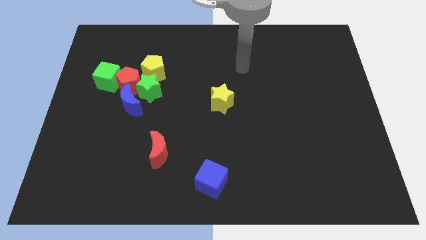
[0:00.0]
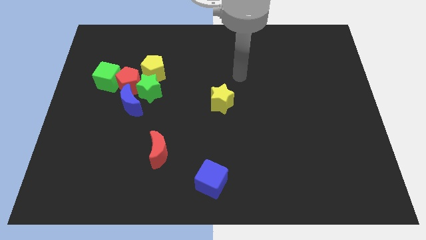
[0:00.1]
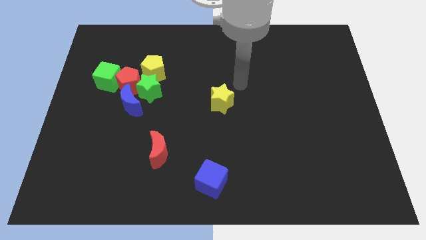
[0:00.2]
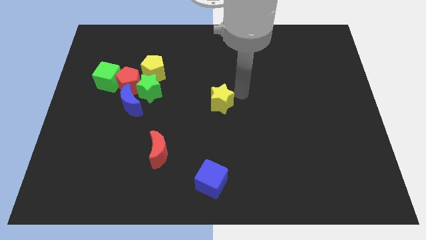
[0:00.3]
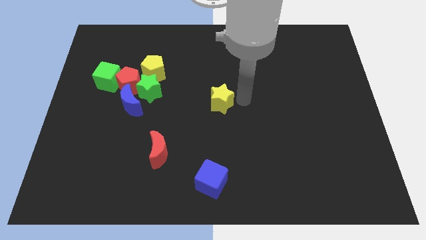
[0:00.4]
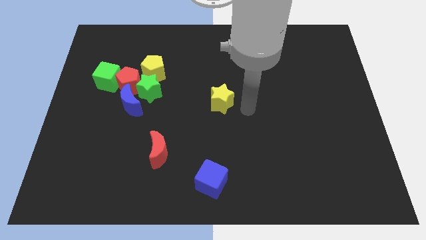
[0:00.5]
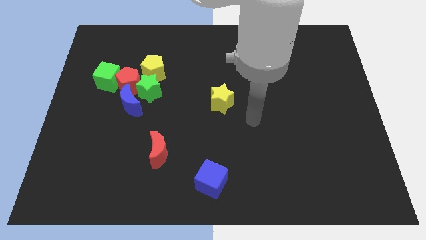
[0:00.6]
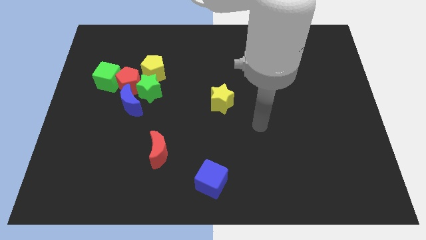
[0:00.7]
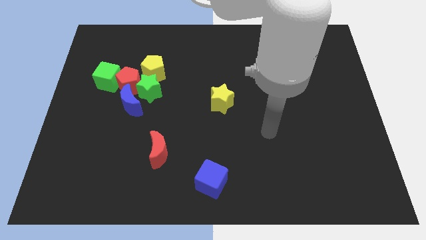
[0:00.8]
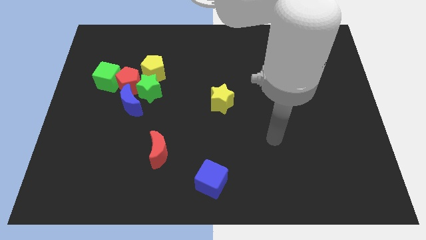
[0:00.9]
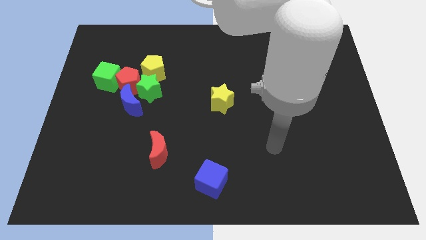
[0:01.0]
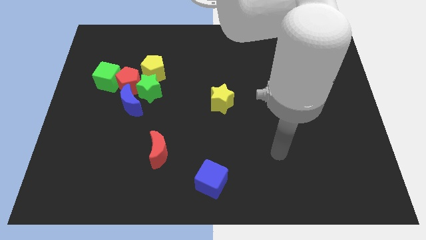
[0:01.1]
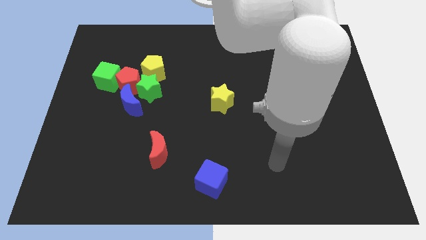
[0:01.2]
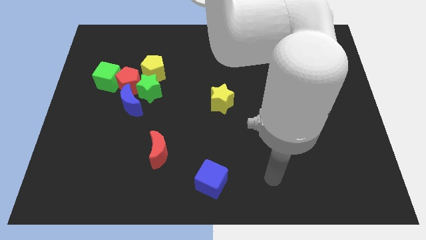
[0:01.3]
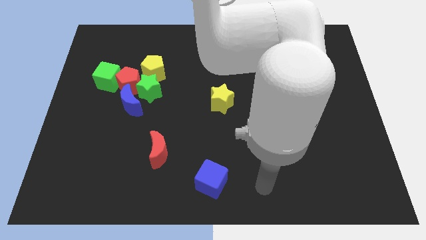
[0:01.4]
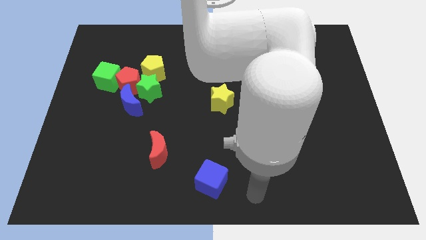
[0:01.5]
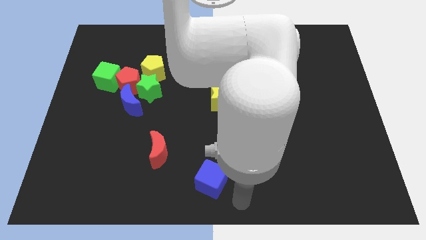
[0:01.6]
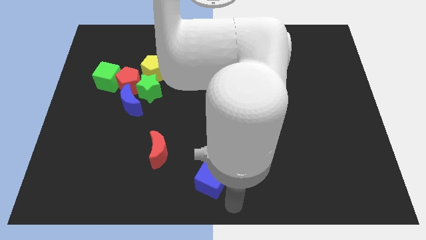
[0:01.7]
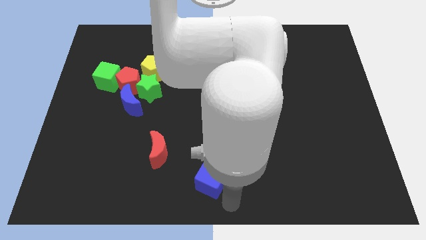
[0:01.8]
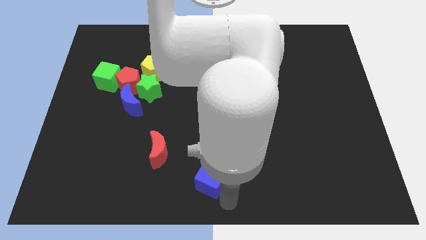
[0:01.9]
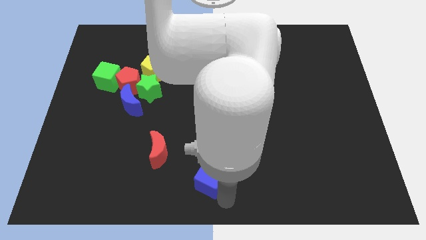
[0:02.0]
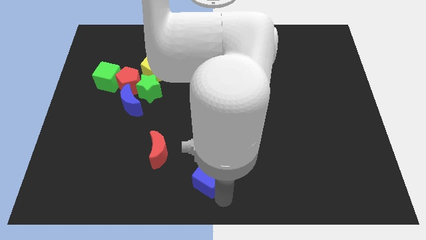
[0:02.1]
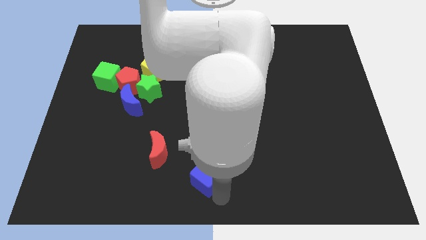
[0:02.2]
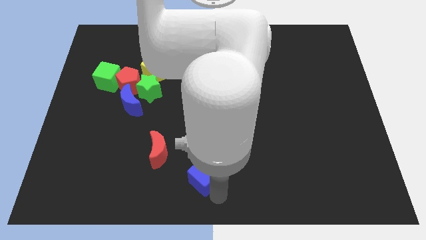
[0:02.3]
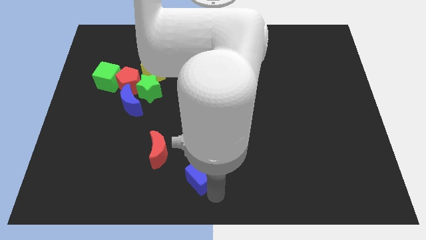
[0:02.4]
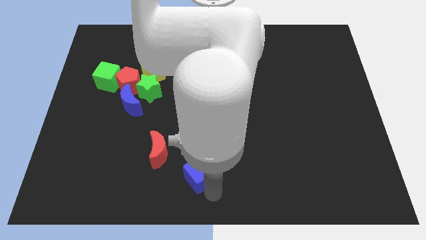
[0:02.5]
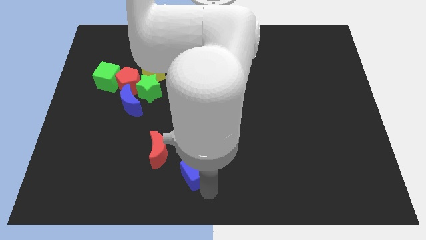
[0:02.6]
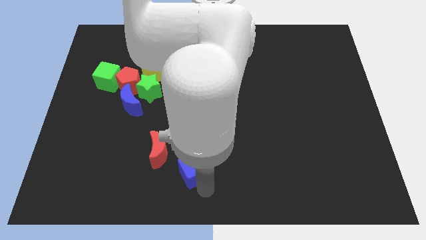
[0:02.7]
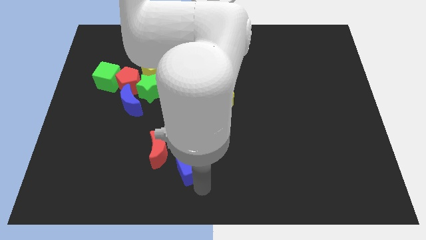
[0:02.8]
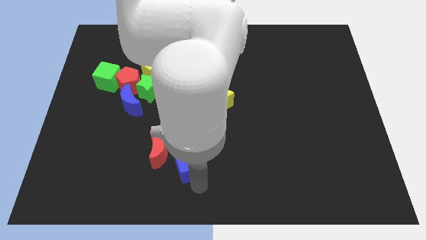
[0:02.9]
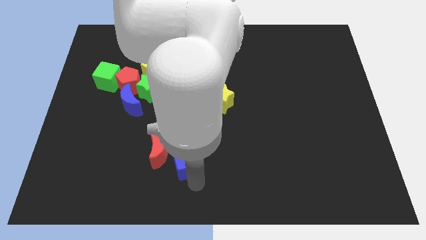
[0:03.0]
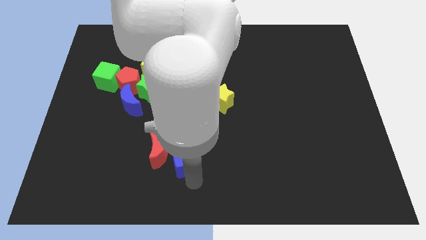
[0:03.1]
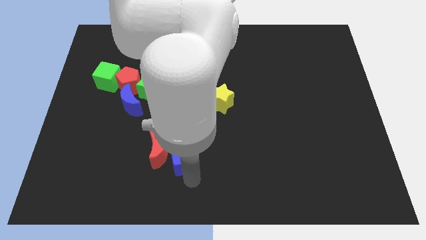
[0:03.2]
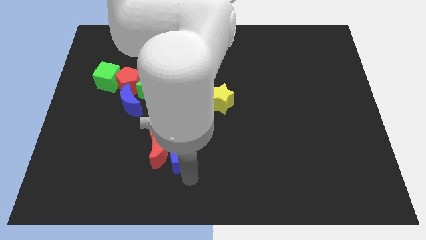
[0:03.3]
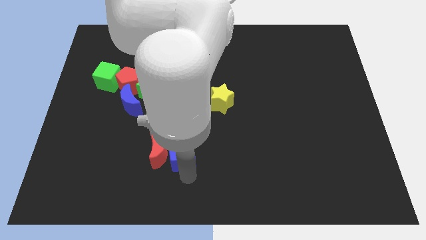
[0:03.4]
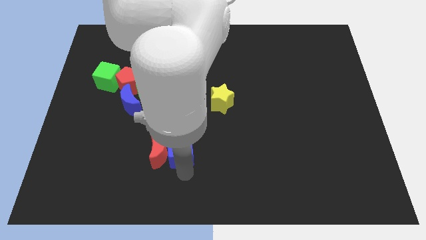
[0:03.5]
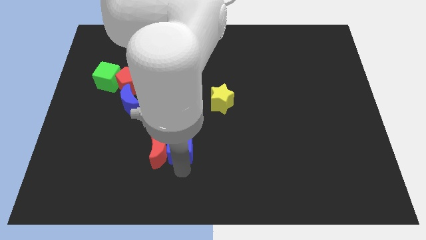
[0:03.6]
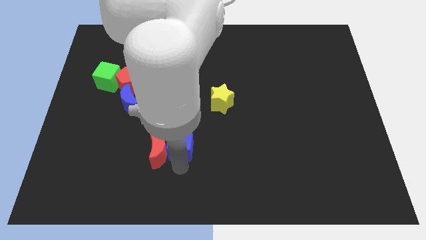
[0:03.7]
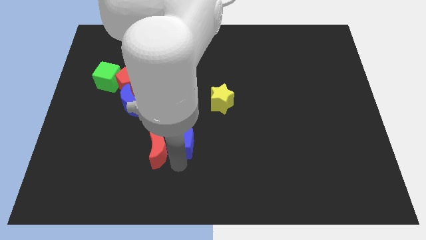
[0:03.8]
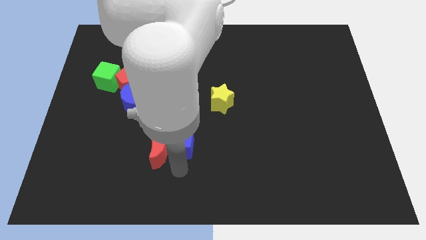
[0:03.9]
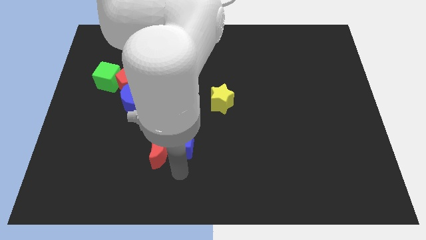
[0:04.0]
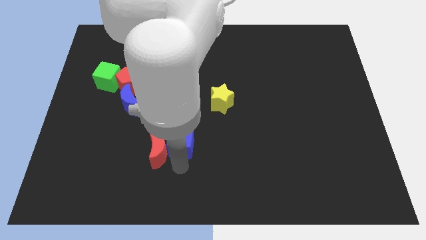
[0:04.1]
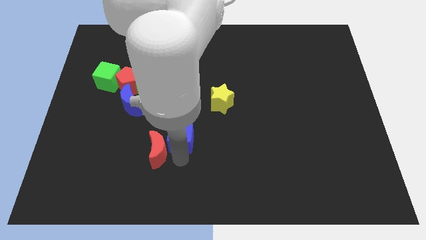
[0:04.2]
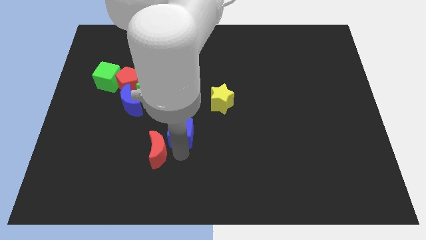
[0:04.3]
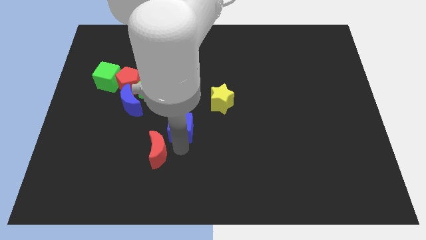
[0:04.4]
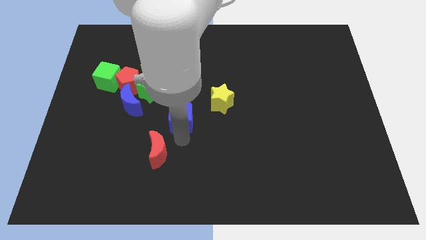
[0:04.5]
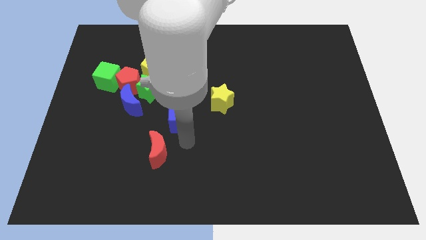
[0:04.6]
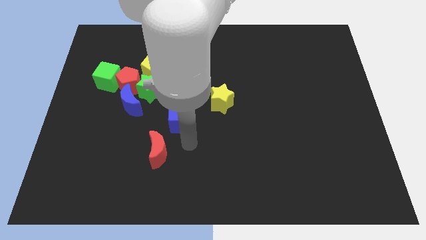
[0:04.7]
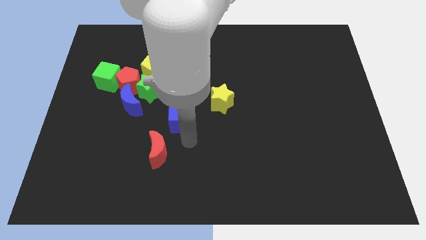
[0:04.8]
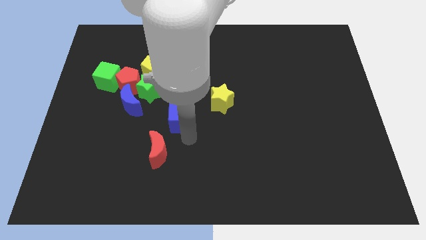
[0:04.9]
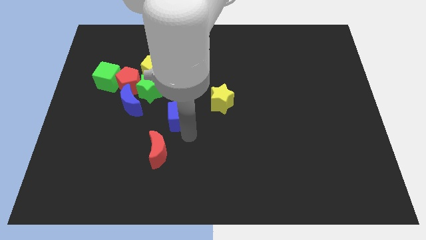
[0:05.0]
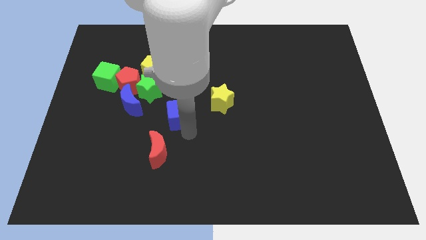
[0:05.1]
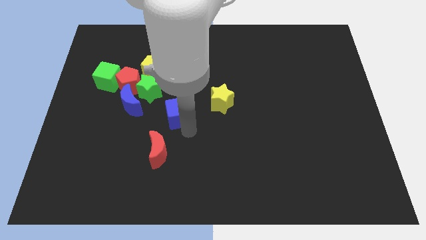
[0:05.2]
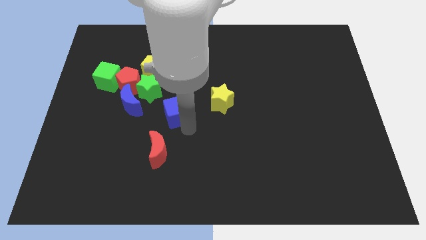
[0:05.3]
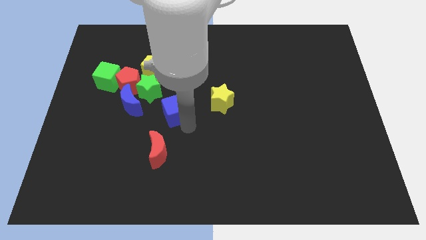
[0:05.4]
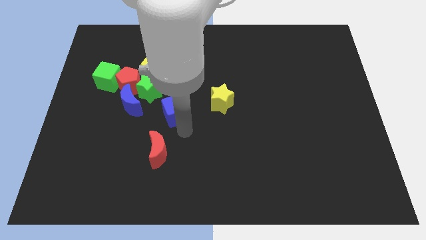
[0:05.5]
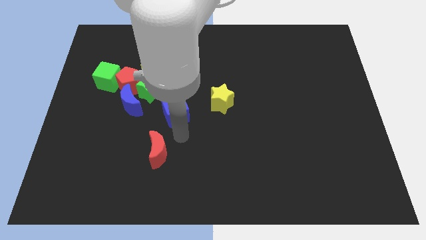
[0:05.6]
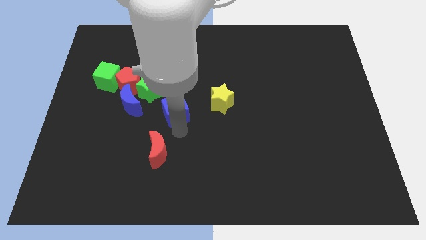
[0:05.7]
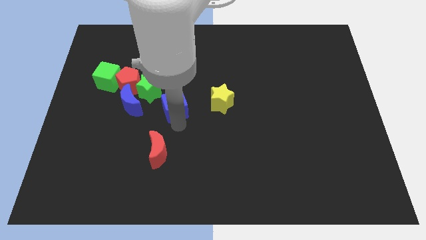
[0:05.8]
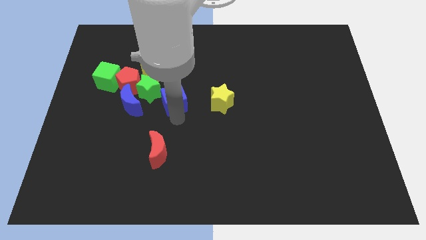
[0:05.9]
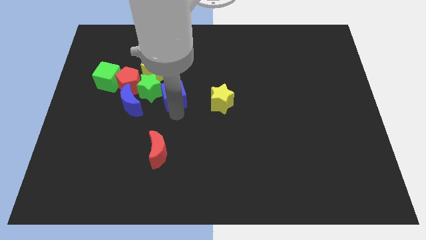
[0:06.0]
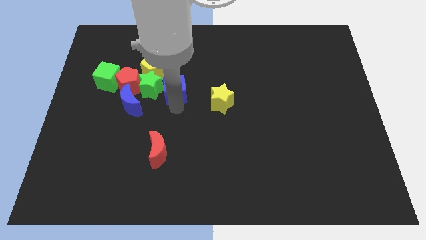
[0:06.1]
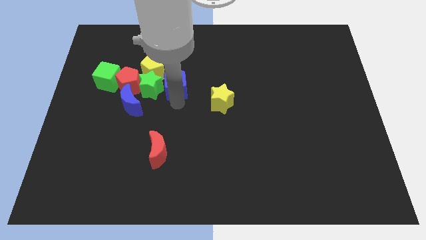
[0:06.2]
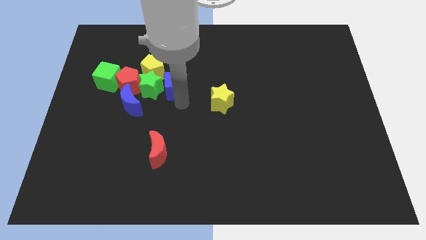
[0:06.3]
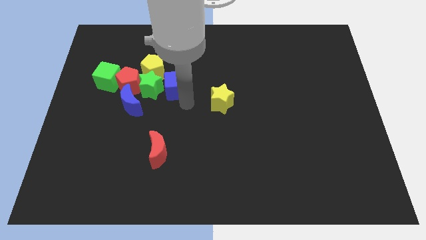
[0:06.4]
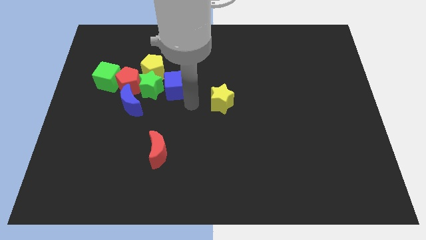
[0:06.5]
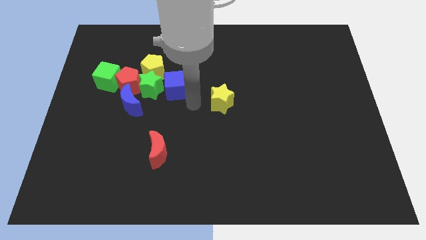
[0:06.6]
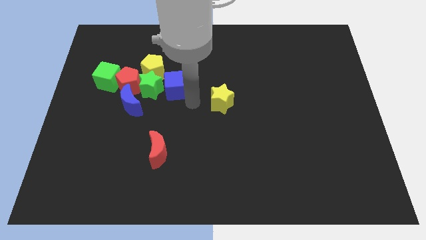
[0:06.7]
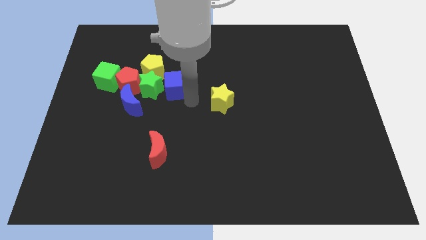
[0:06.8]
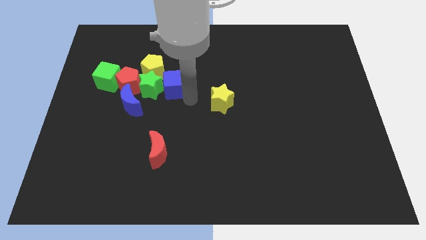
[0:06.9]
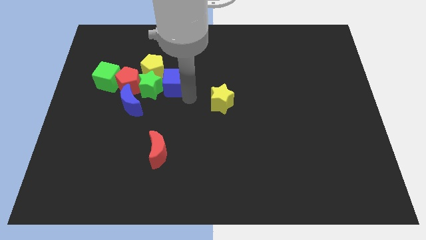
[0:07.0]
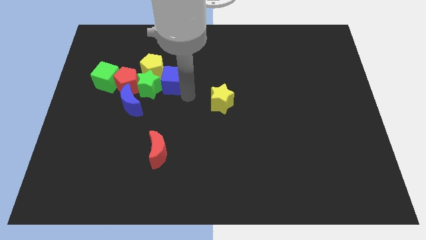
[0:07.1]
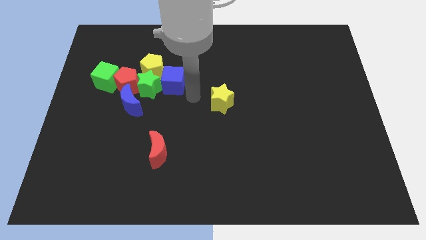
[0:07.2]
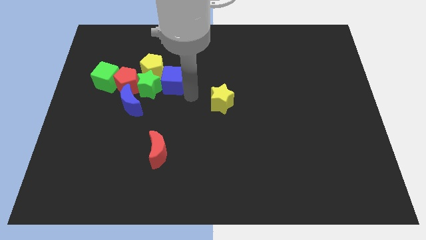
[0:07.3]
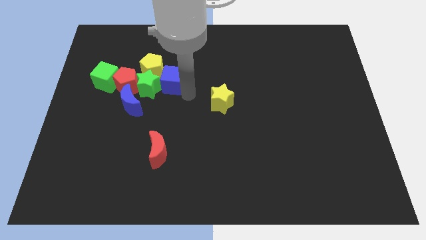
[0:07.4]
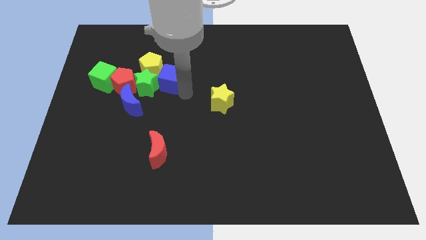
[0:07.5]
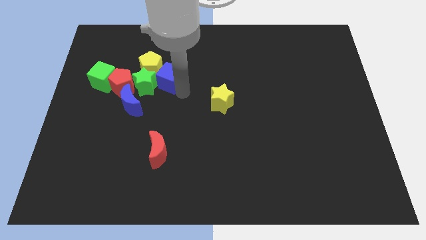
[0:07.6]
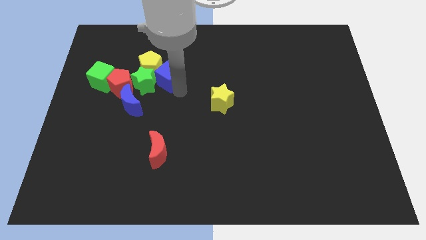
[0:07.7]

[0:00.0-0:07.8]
put the blue cube towards the yellow pentagon

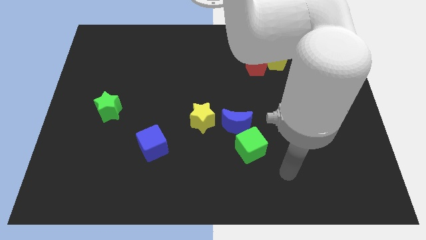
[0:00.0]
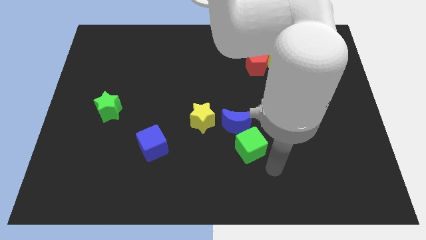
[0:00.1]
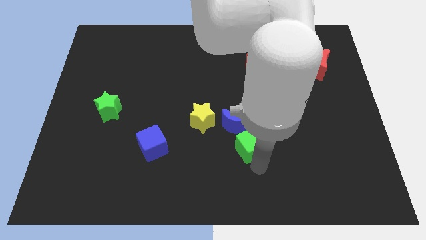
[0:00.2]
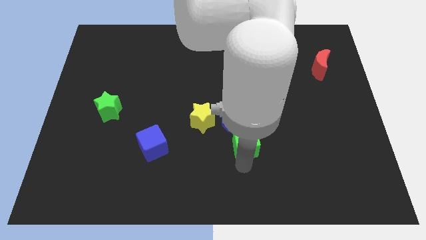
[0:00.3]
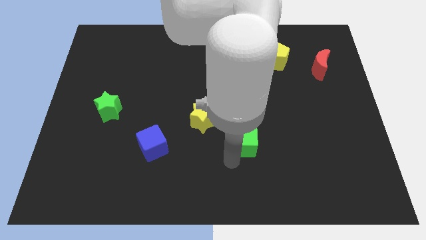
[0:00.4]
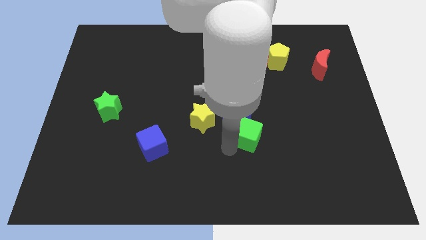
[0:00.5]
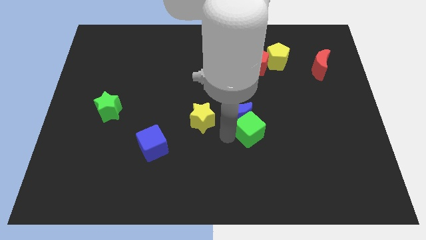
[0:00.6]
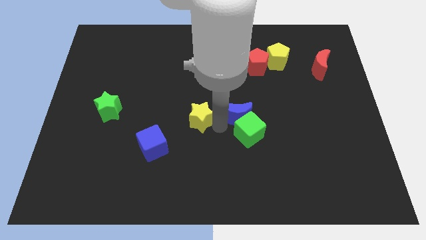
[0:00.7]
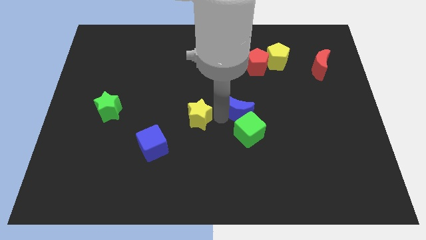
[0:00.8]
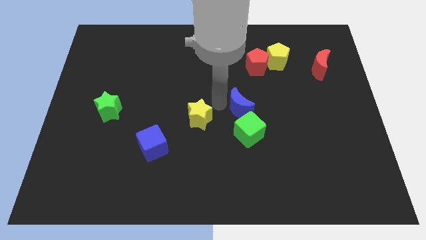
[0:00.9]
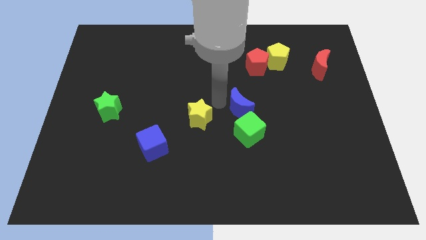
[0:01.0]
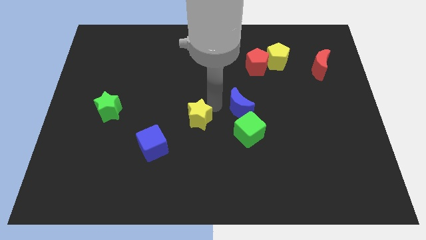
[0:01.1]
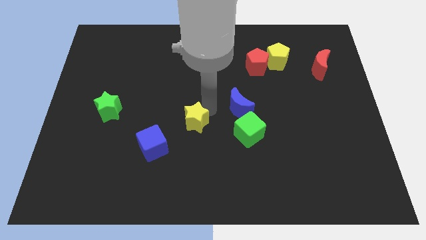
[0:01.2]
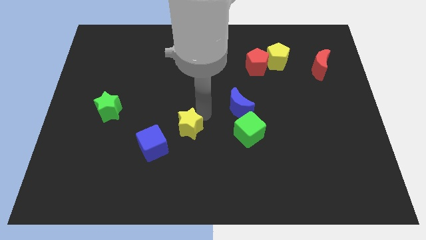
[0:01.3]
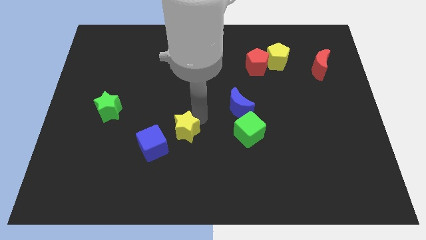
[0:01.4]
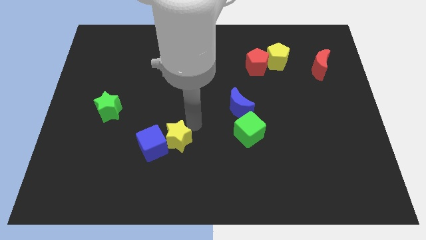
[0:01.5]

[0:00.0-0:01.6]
put the yellow star close to the blue cube
